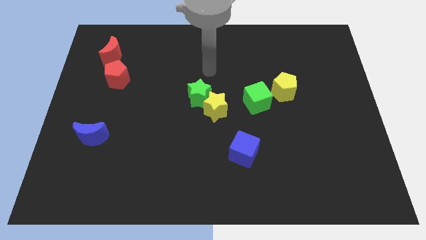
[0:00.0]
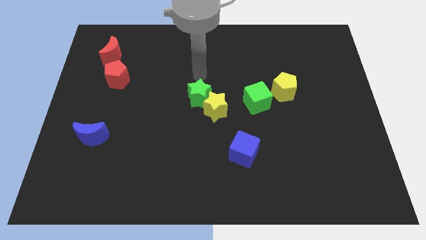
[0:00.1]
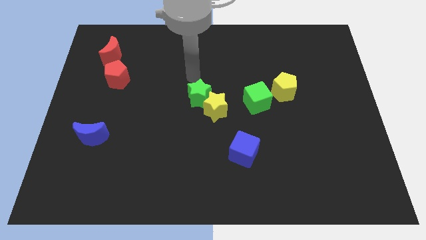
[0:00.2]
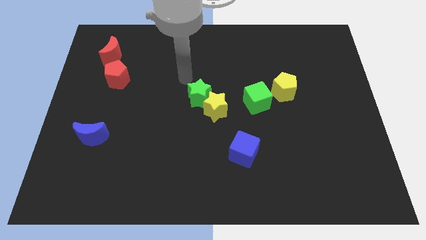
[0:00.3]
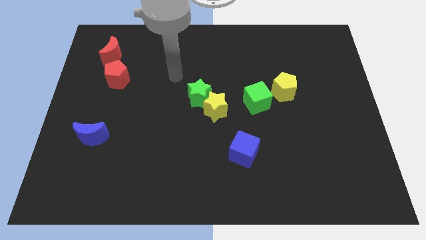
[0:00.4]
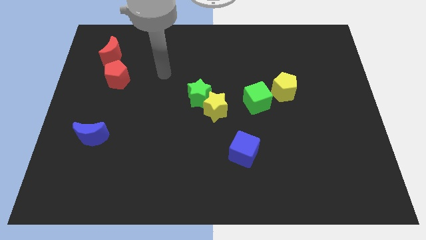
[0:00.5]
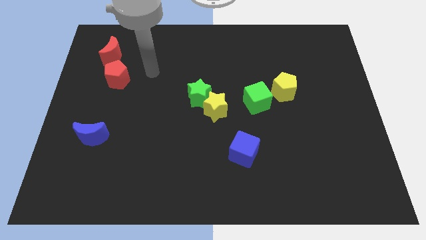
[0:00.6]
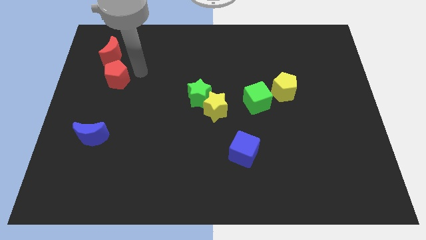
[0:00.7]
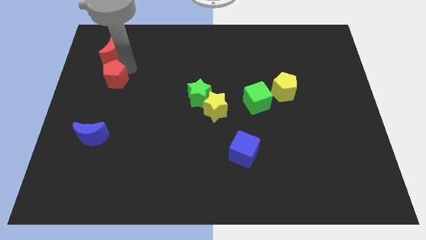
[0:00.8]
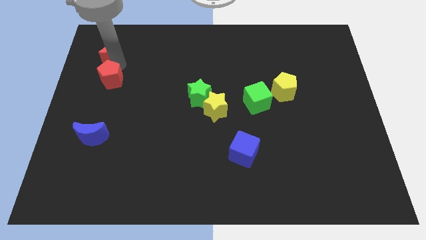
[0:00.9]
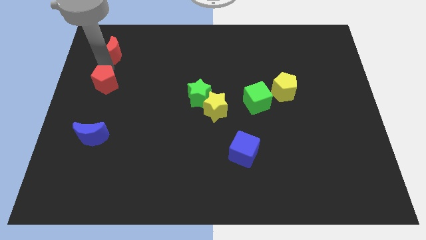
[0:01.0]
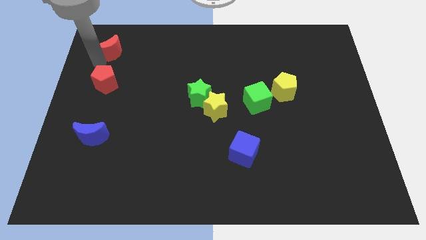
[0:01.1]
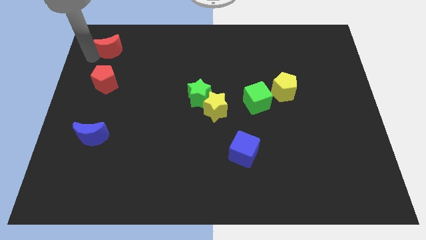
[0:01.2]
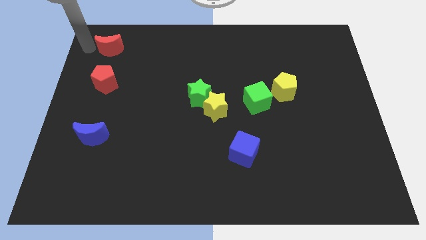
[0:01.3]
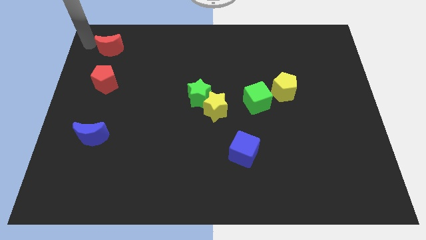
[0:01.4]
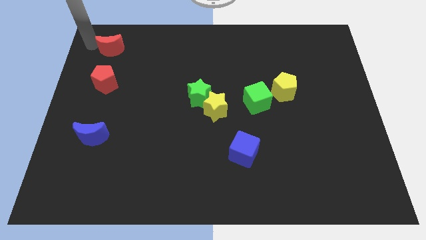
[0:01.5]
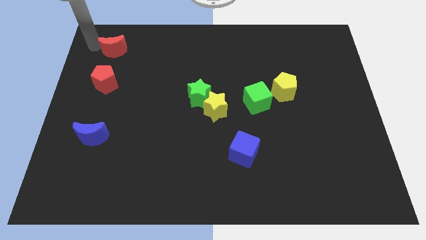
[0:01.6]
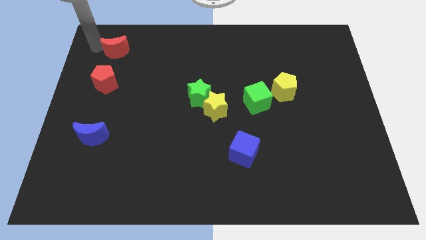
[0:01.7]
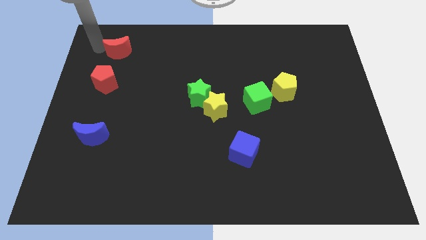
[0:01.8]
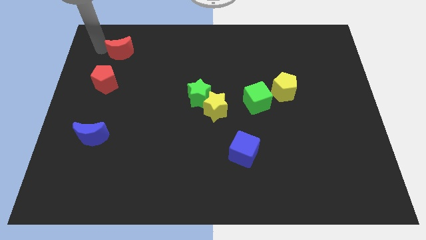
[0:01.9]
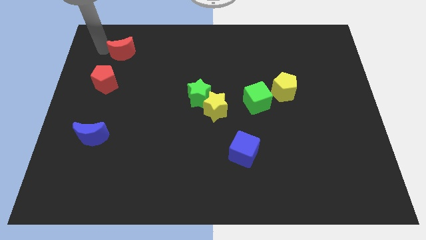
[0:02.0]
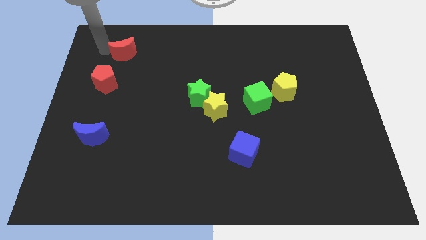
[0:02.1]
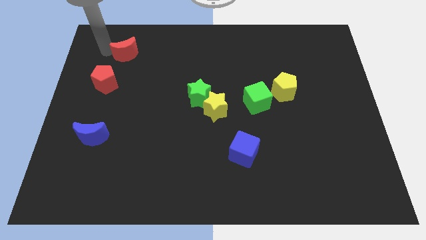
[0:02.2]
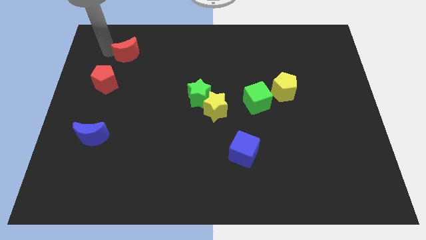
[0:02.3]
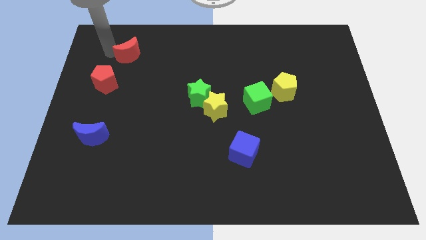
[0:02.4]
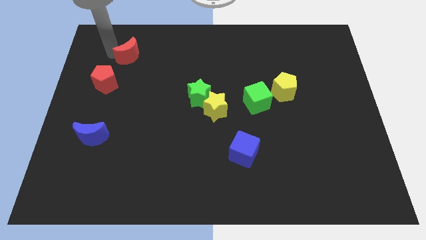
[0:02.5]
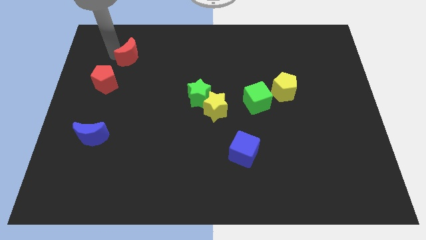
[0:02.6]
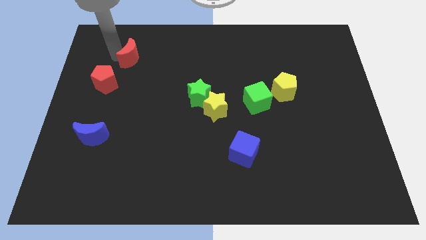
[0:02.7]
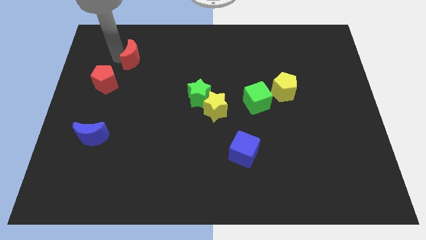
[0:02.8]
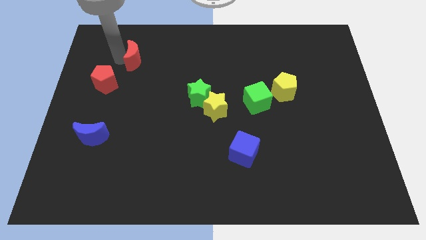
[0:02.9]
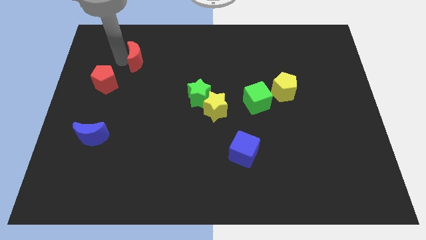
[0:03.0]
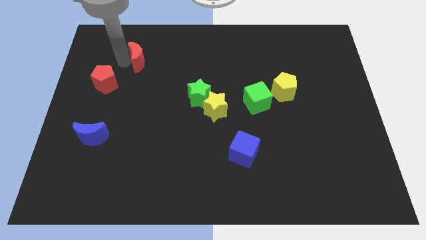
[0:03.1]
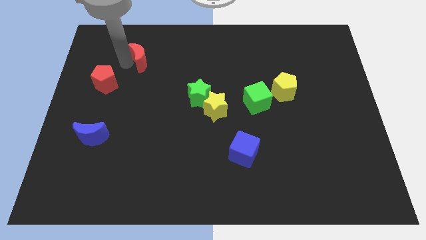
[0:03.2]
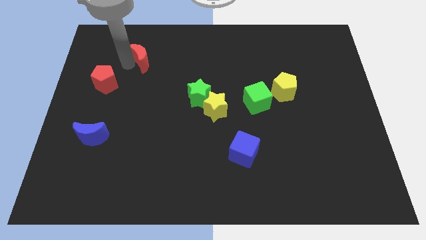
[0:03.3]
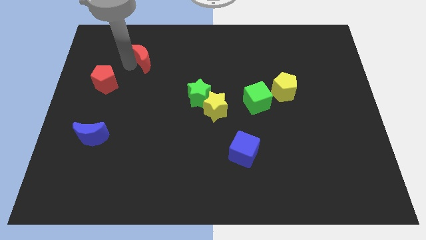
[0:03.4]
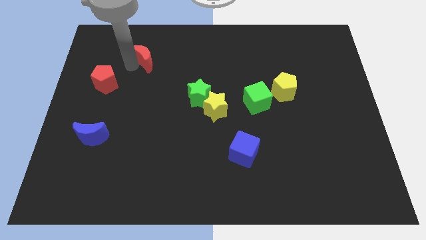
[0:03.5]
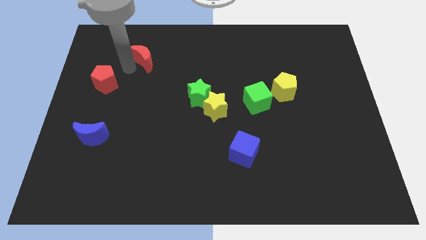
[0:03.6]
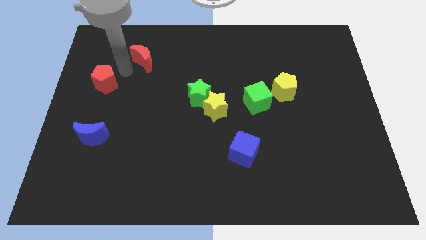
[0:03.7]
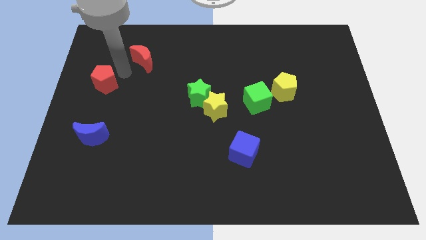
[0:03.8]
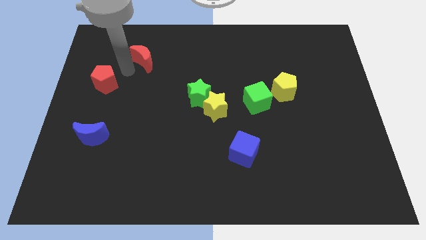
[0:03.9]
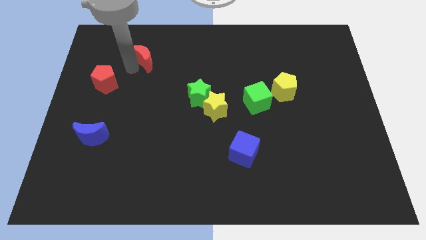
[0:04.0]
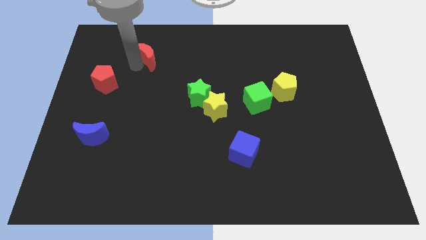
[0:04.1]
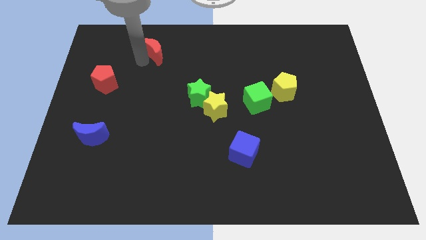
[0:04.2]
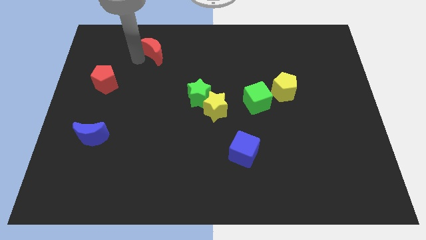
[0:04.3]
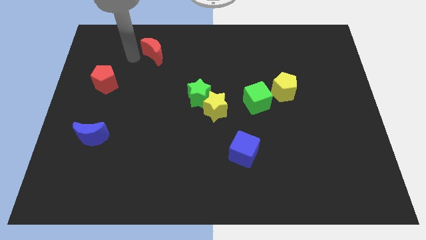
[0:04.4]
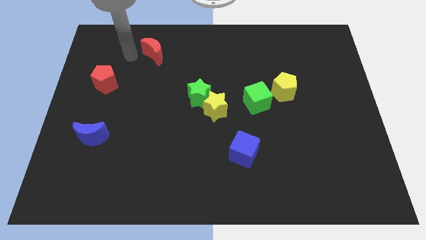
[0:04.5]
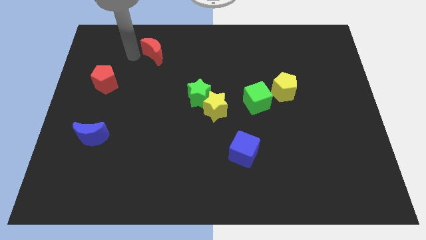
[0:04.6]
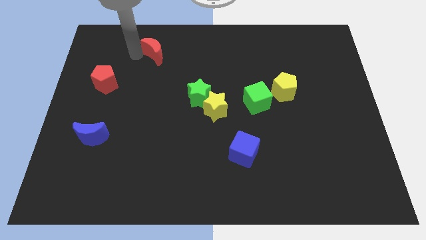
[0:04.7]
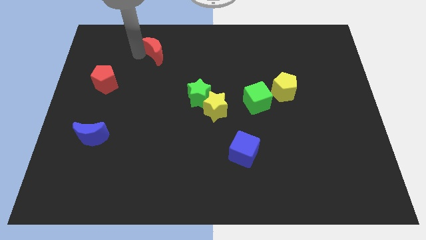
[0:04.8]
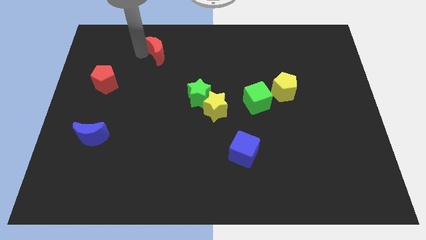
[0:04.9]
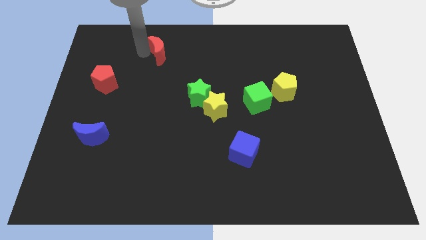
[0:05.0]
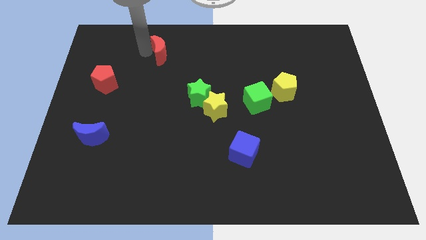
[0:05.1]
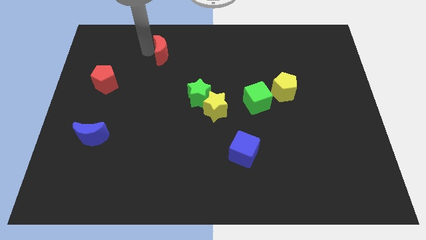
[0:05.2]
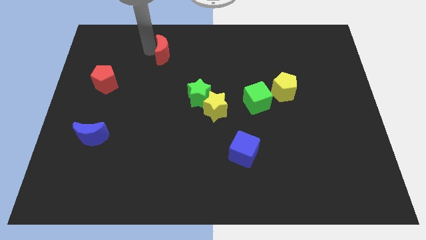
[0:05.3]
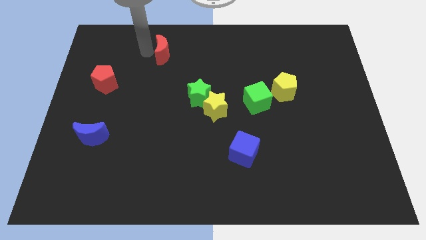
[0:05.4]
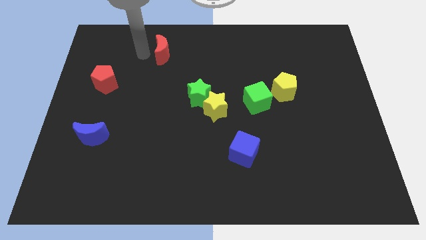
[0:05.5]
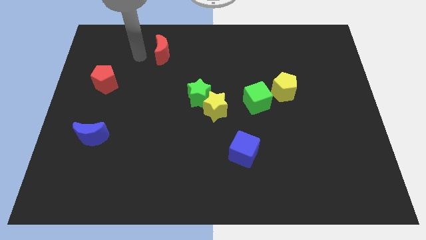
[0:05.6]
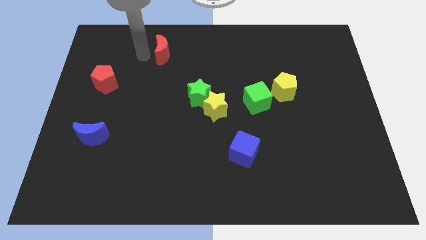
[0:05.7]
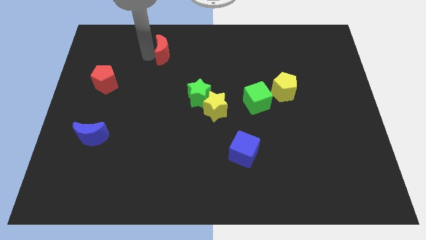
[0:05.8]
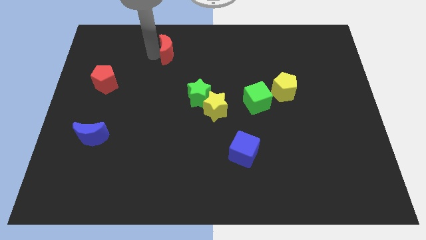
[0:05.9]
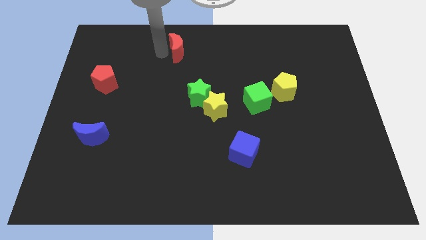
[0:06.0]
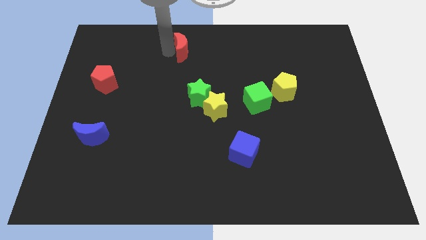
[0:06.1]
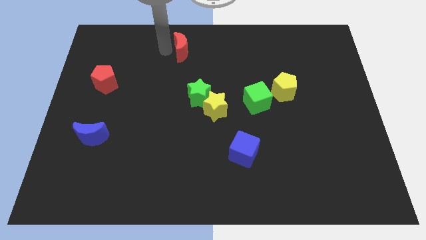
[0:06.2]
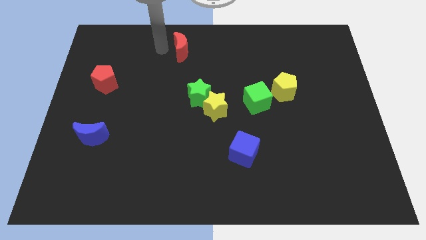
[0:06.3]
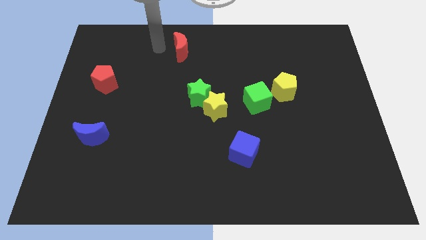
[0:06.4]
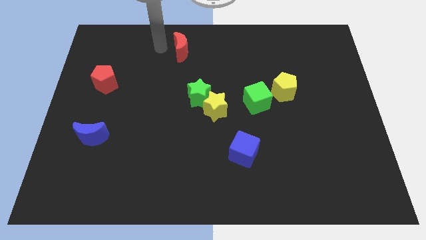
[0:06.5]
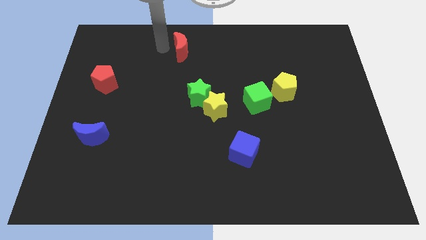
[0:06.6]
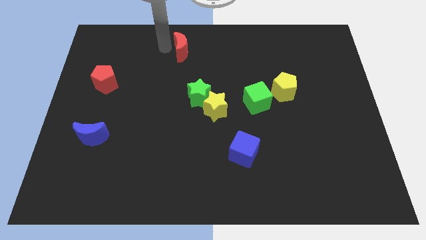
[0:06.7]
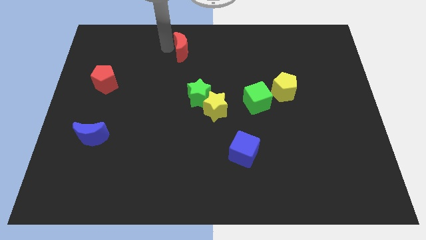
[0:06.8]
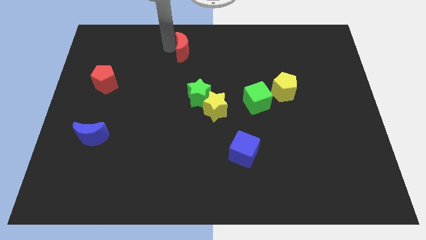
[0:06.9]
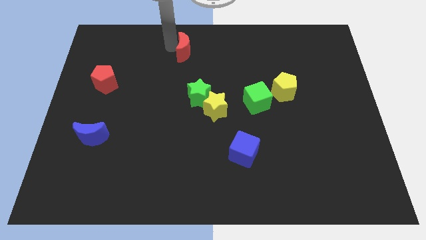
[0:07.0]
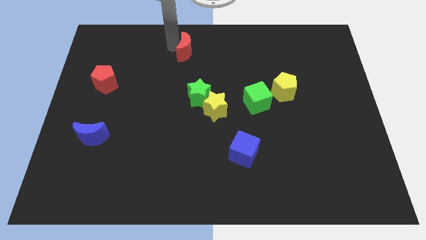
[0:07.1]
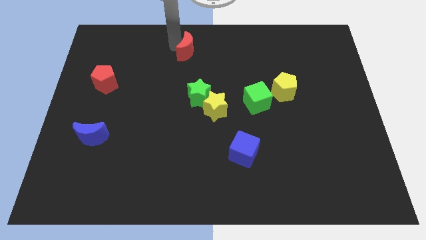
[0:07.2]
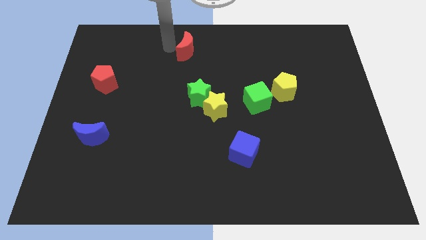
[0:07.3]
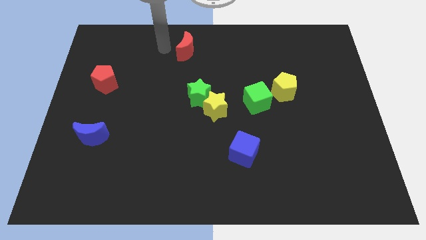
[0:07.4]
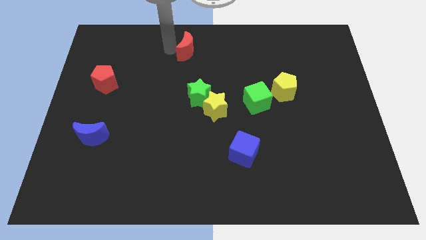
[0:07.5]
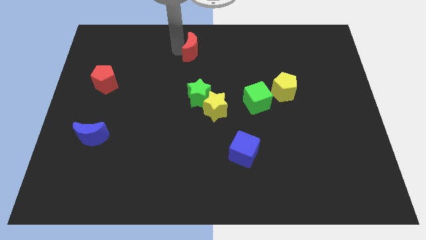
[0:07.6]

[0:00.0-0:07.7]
move the red moon to the right

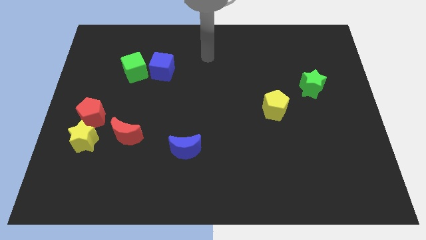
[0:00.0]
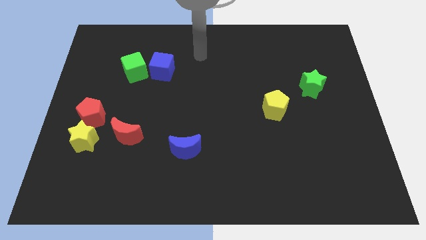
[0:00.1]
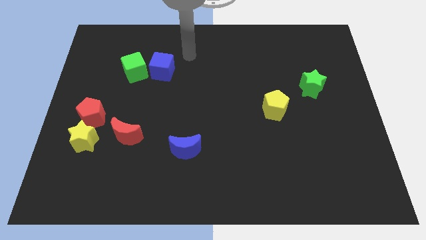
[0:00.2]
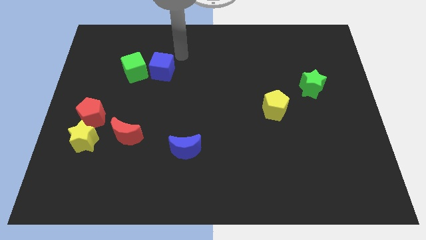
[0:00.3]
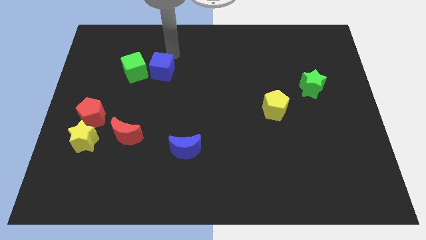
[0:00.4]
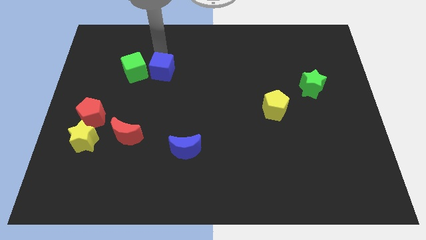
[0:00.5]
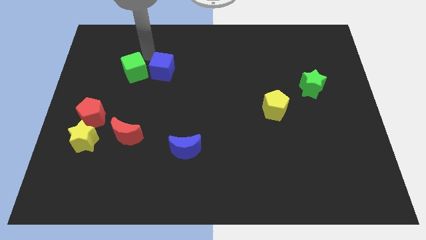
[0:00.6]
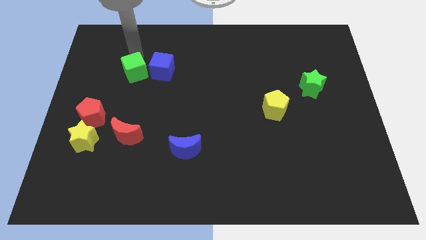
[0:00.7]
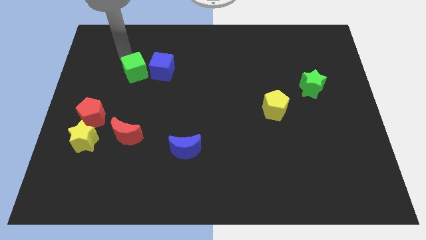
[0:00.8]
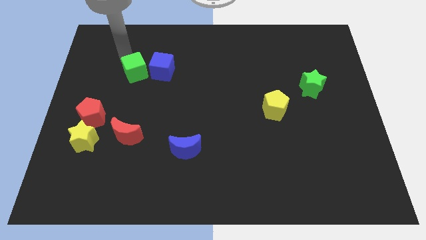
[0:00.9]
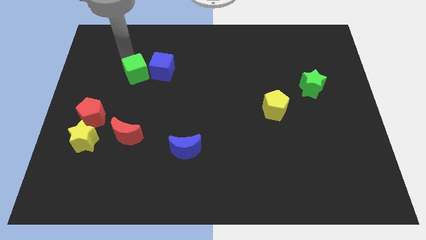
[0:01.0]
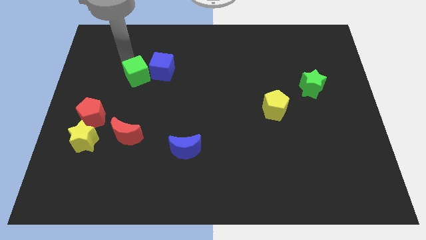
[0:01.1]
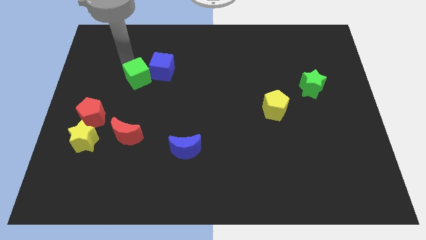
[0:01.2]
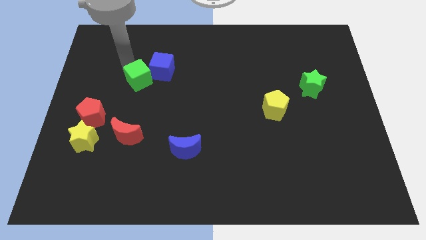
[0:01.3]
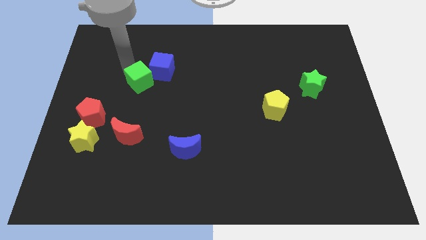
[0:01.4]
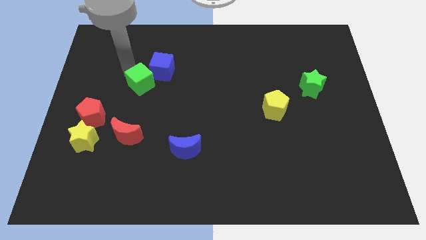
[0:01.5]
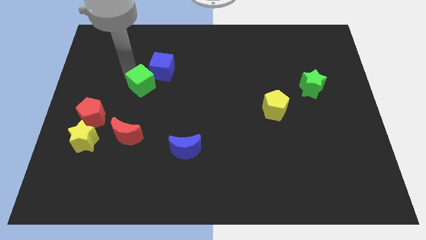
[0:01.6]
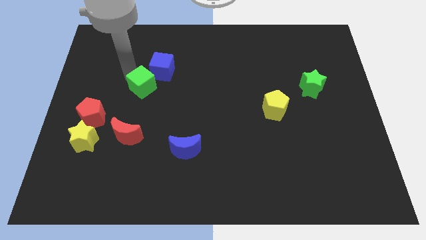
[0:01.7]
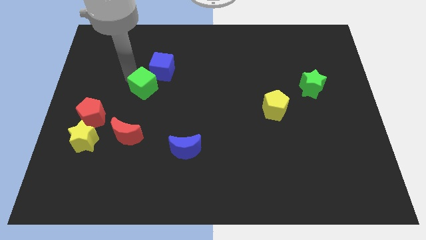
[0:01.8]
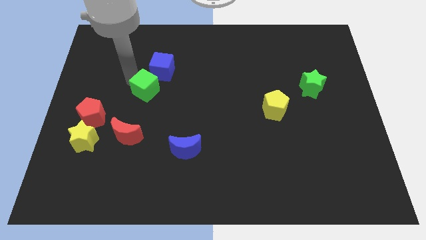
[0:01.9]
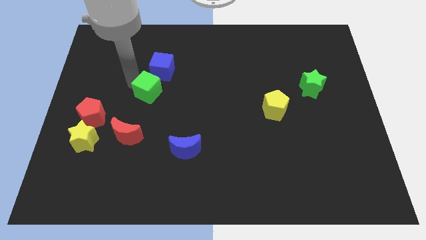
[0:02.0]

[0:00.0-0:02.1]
slightly slide the green cube down and to the right diagonally
